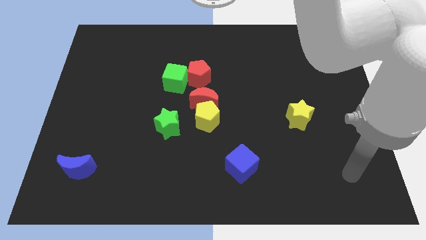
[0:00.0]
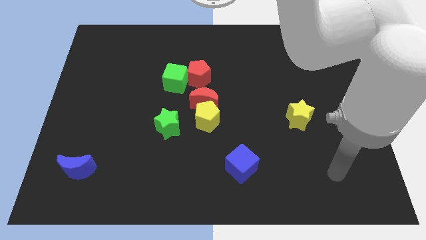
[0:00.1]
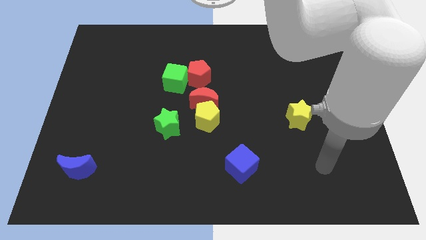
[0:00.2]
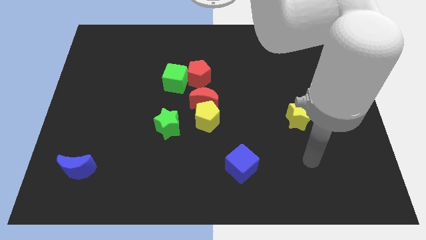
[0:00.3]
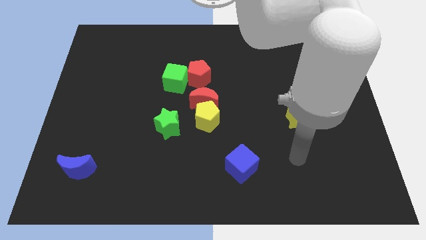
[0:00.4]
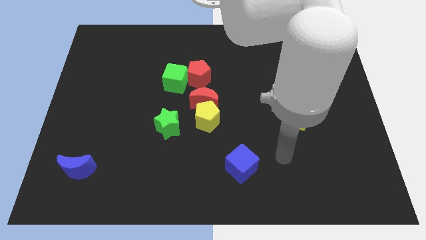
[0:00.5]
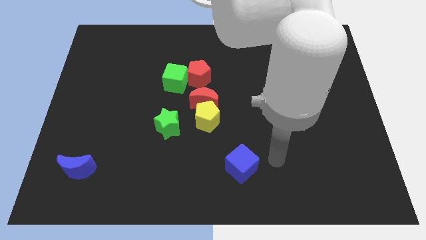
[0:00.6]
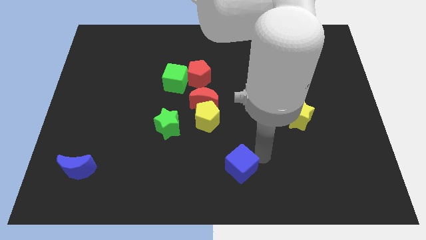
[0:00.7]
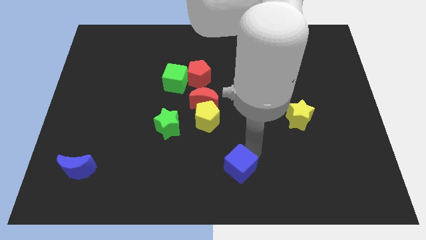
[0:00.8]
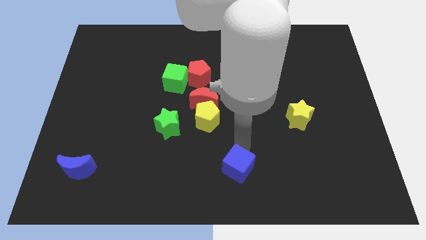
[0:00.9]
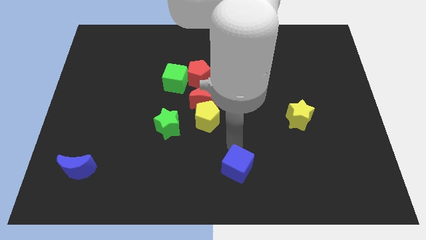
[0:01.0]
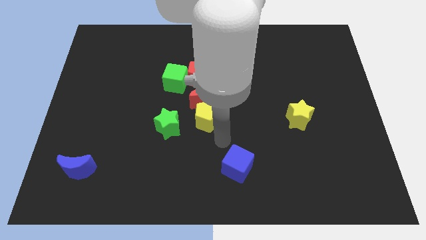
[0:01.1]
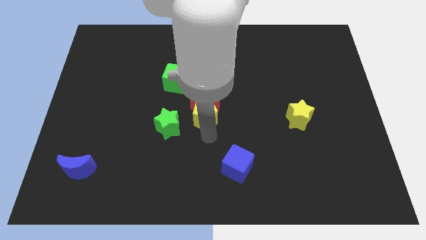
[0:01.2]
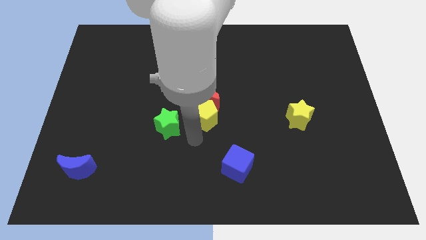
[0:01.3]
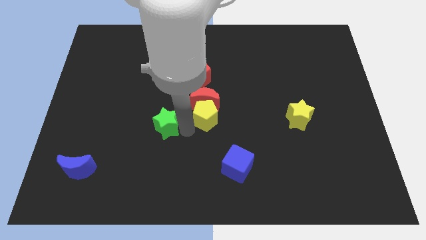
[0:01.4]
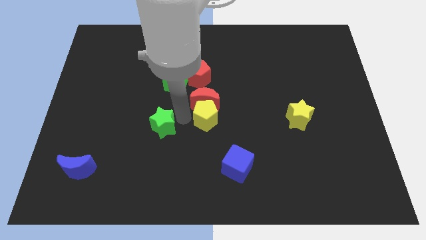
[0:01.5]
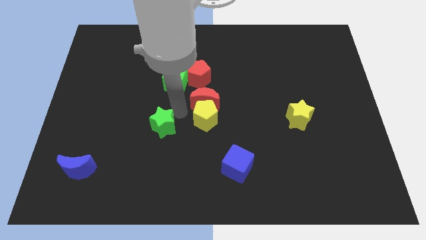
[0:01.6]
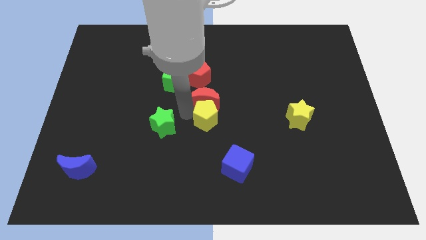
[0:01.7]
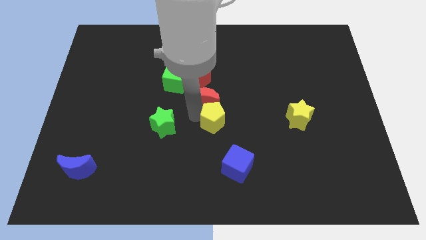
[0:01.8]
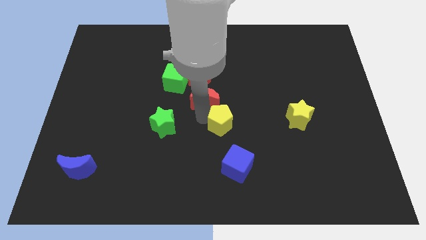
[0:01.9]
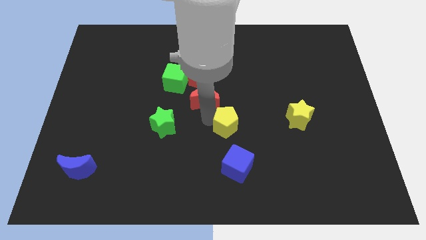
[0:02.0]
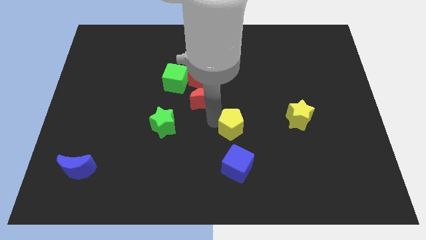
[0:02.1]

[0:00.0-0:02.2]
move the yellow pentagon away from the red moon and green star

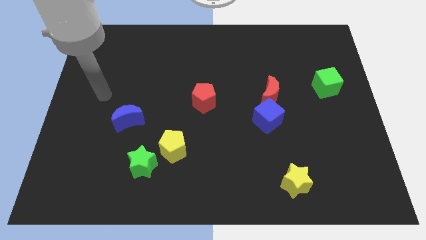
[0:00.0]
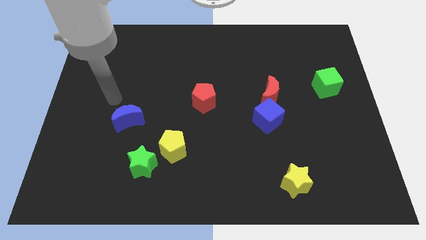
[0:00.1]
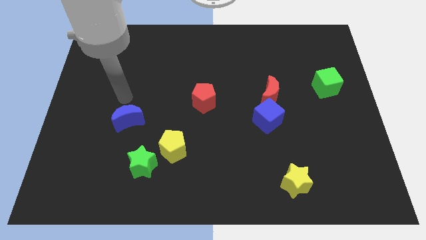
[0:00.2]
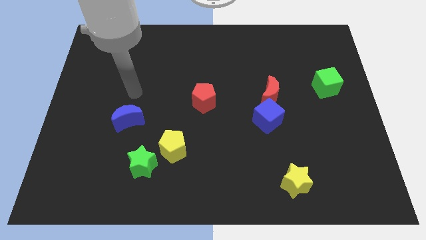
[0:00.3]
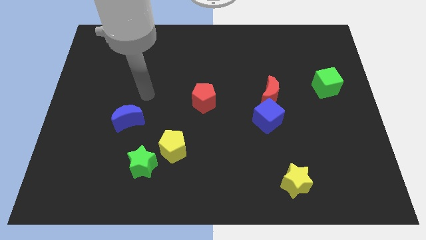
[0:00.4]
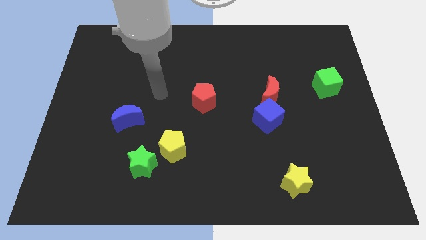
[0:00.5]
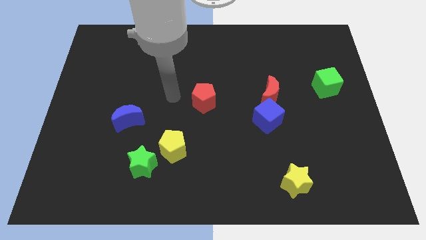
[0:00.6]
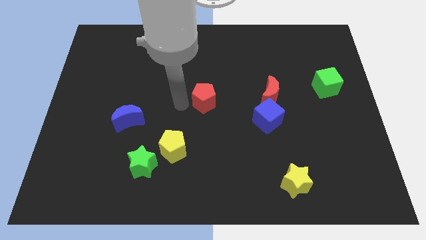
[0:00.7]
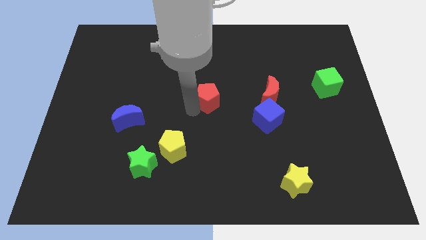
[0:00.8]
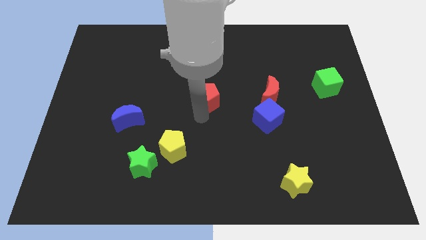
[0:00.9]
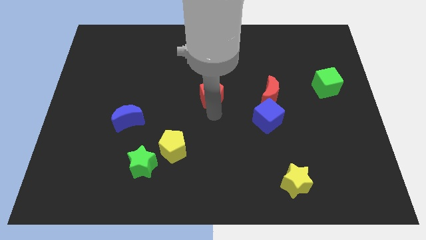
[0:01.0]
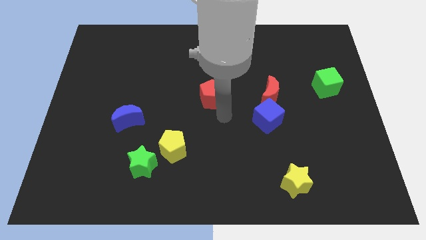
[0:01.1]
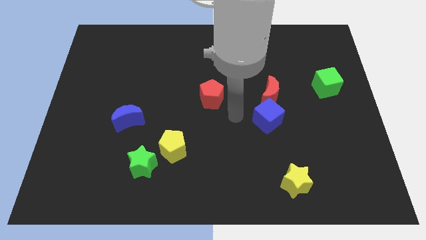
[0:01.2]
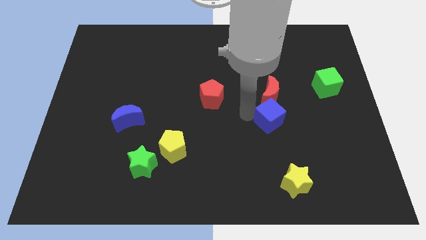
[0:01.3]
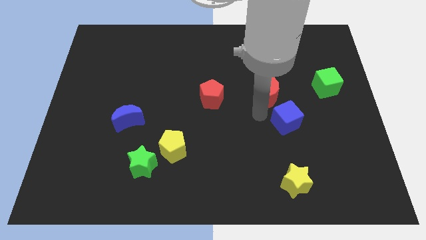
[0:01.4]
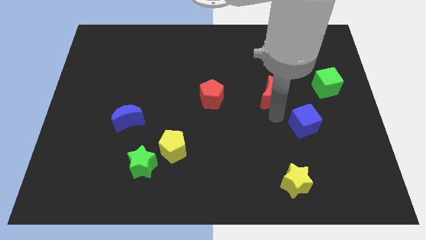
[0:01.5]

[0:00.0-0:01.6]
move the red moon away from the blue cube

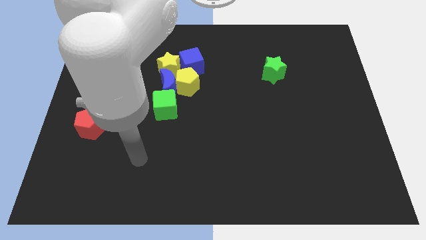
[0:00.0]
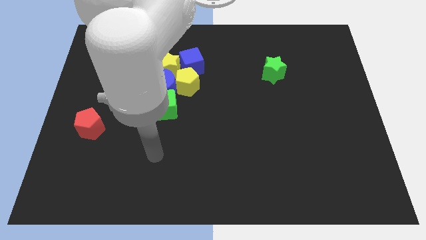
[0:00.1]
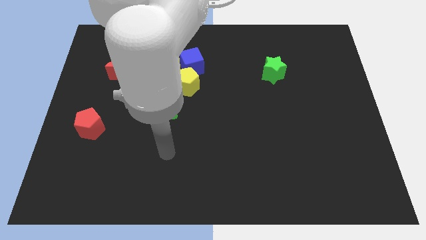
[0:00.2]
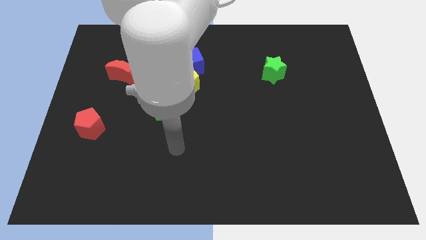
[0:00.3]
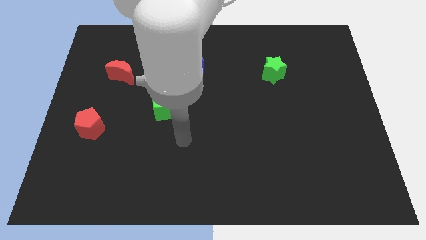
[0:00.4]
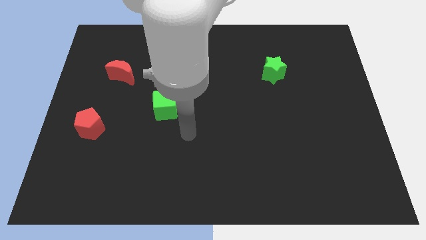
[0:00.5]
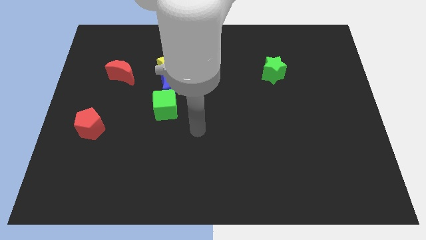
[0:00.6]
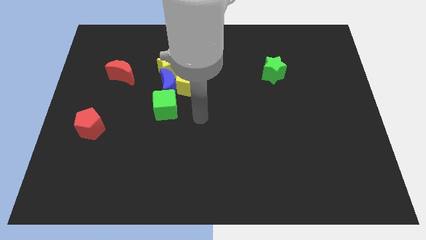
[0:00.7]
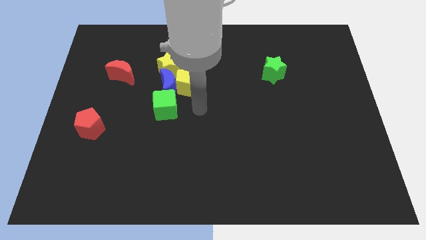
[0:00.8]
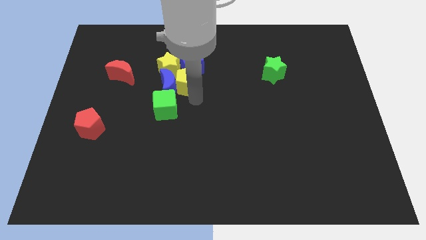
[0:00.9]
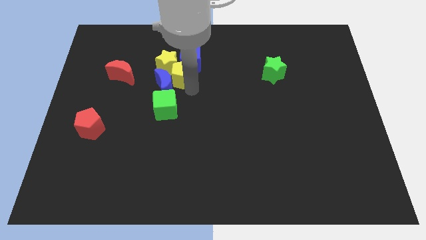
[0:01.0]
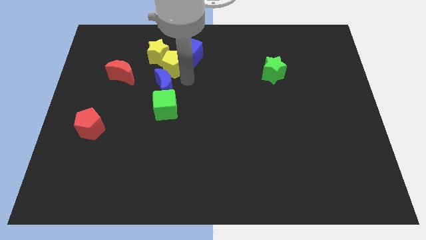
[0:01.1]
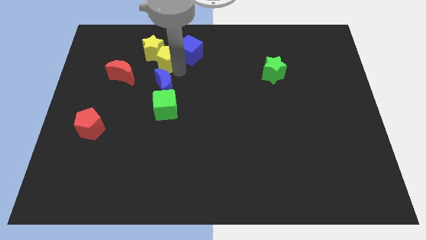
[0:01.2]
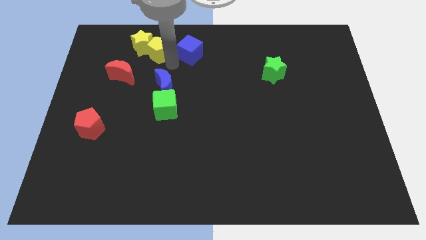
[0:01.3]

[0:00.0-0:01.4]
pull the yellow star apart from the group of blocks

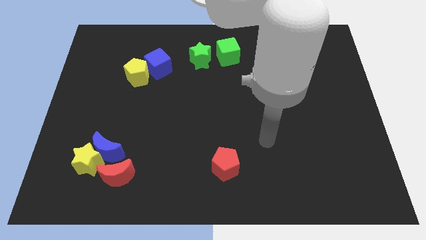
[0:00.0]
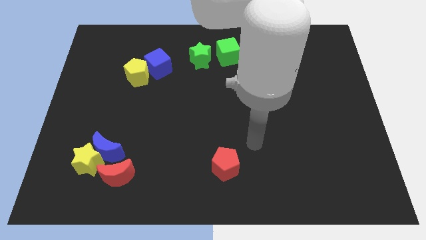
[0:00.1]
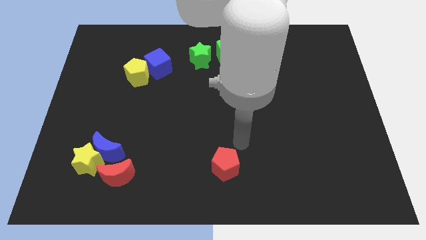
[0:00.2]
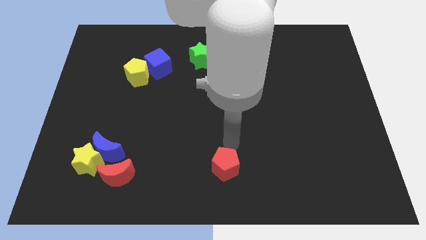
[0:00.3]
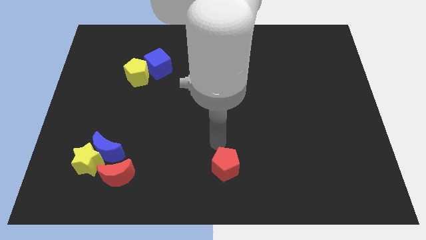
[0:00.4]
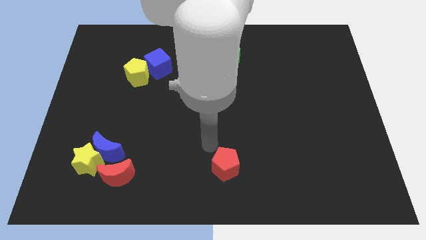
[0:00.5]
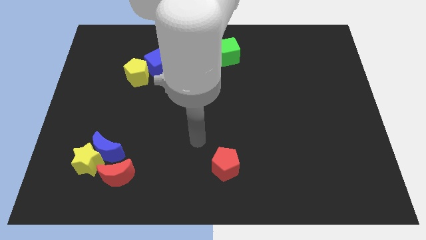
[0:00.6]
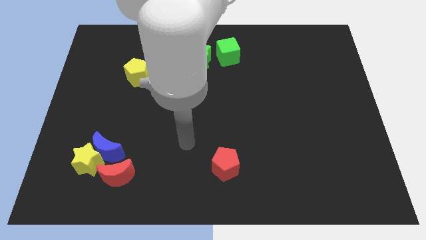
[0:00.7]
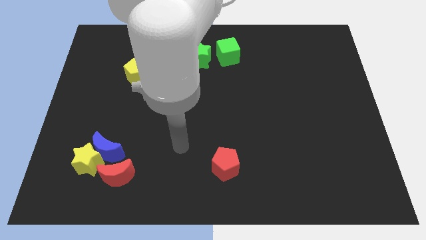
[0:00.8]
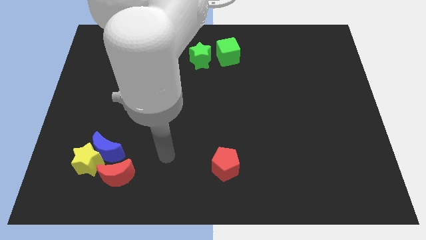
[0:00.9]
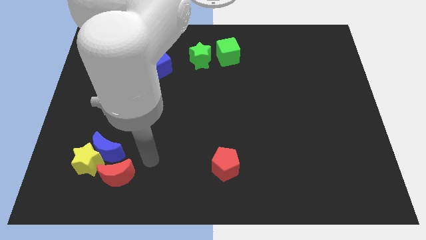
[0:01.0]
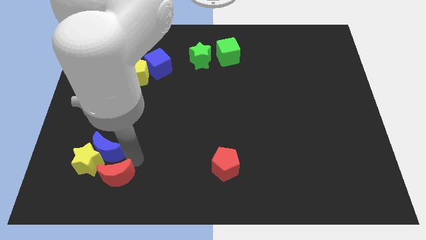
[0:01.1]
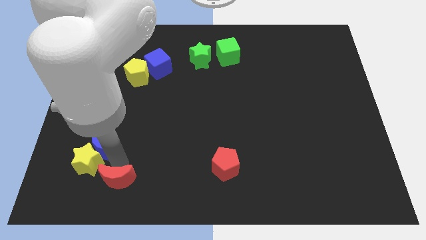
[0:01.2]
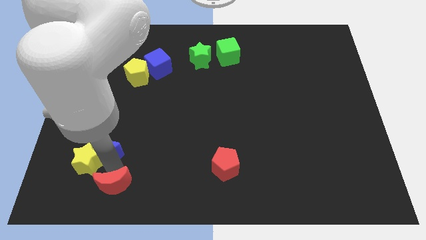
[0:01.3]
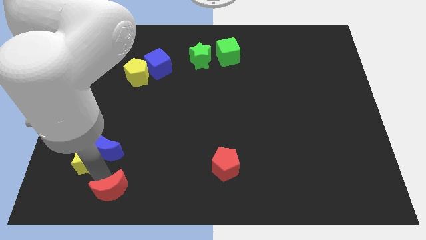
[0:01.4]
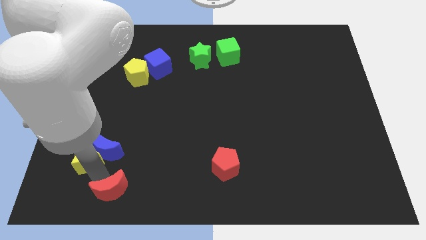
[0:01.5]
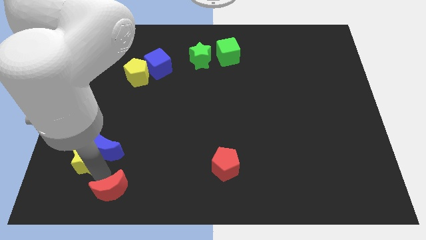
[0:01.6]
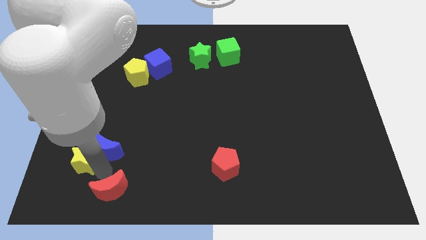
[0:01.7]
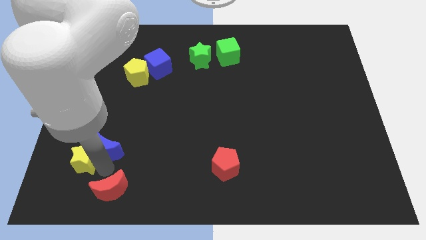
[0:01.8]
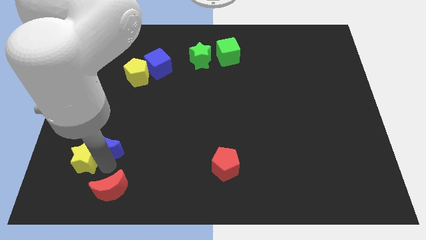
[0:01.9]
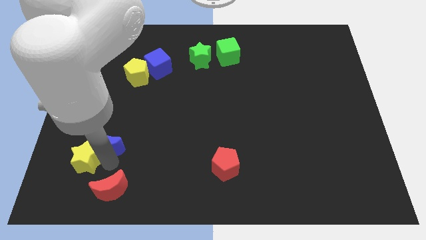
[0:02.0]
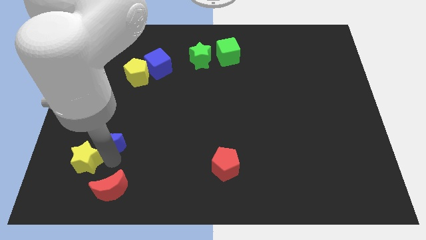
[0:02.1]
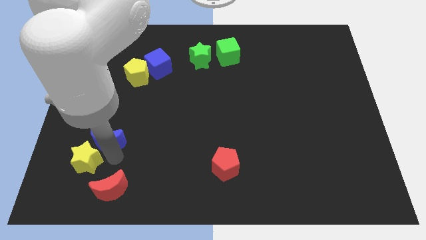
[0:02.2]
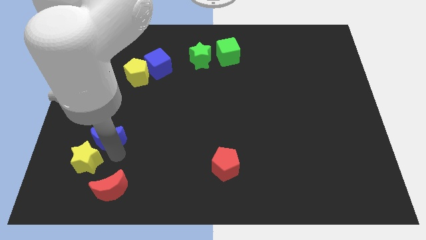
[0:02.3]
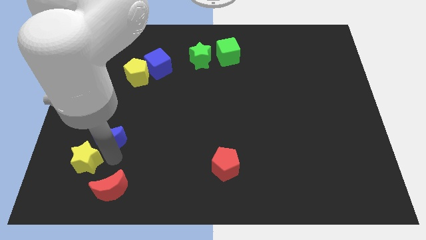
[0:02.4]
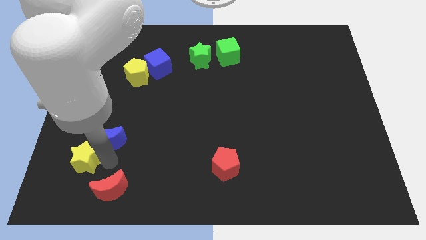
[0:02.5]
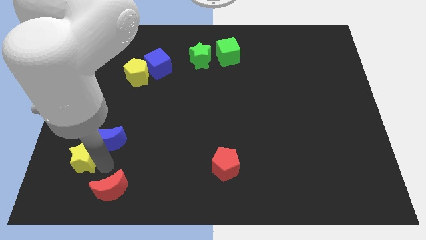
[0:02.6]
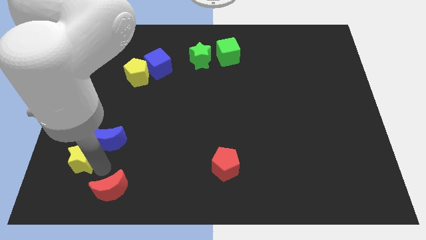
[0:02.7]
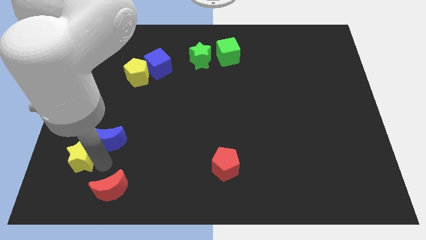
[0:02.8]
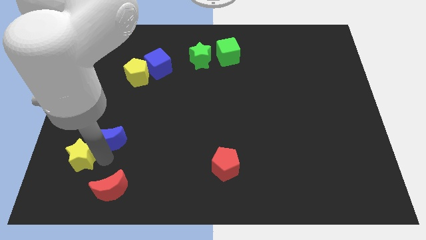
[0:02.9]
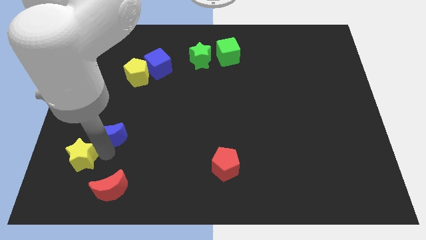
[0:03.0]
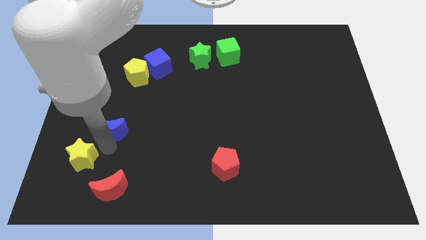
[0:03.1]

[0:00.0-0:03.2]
pull the blue moon apart from the yellow star and red moon

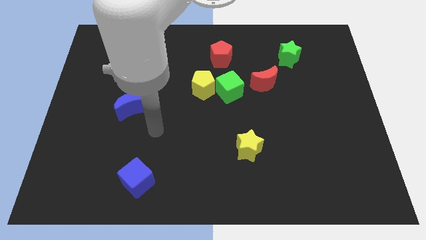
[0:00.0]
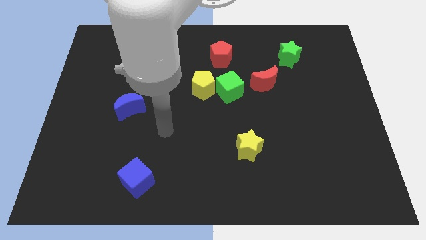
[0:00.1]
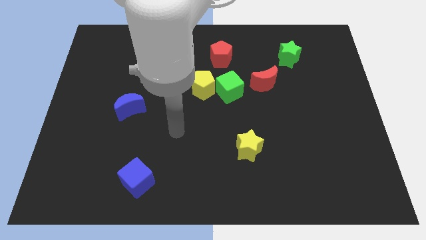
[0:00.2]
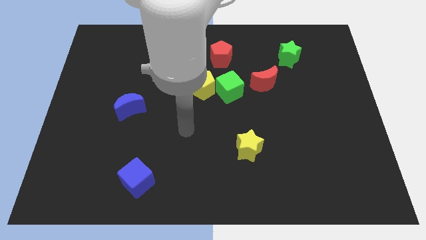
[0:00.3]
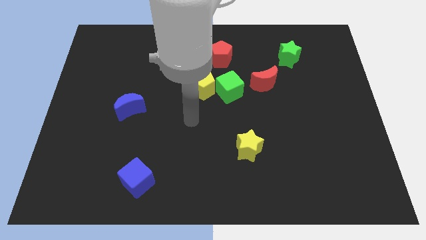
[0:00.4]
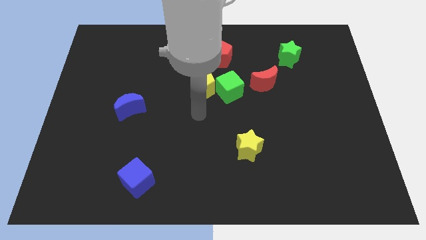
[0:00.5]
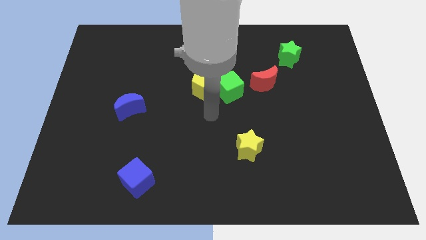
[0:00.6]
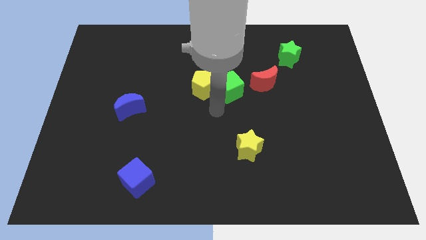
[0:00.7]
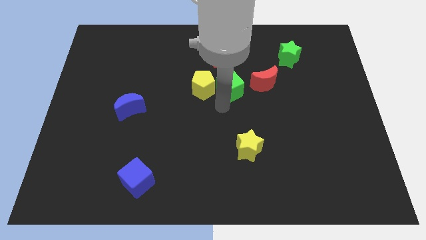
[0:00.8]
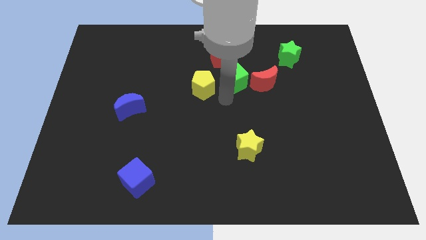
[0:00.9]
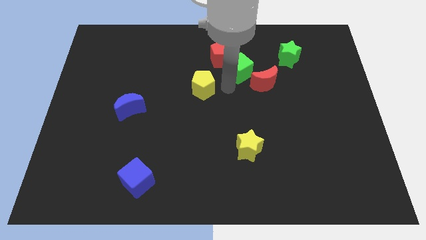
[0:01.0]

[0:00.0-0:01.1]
move the yellow pentagon away from the green cube
